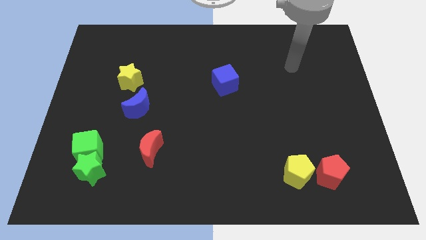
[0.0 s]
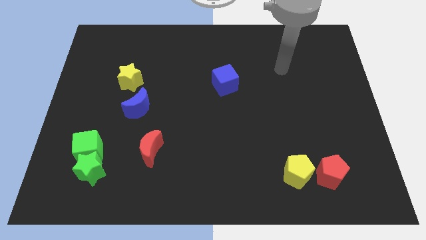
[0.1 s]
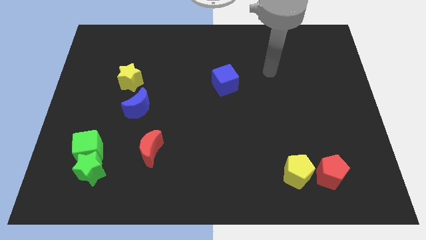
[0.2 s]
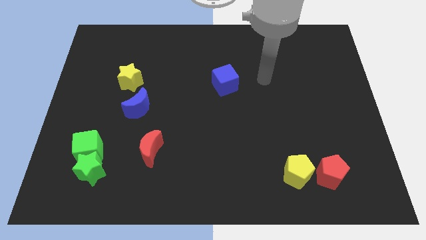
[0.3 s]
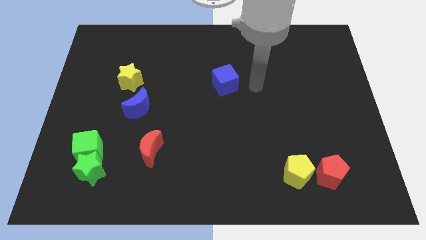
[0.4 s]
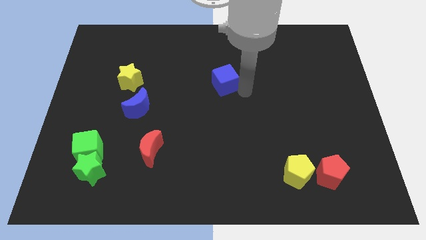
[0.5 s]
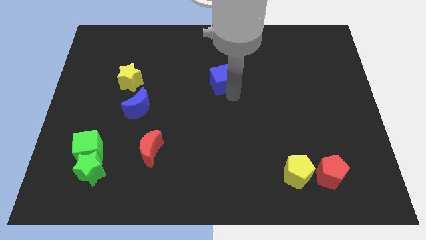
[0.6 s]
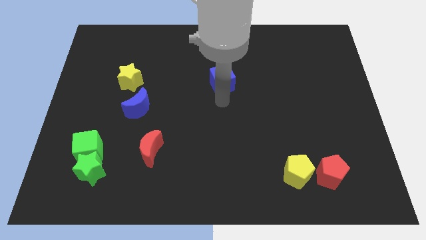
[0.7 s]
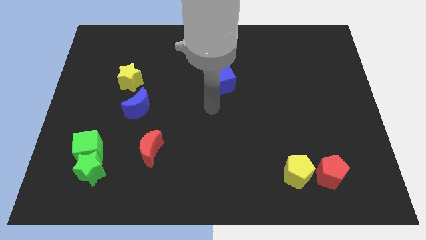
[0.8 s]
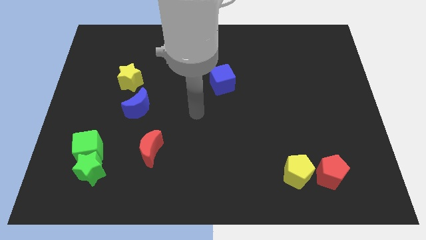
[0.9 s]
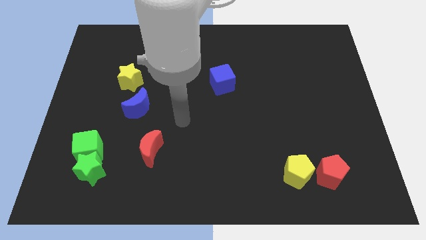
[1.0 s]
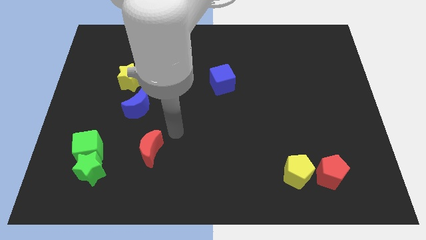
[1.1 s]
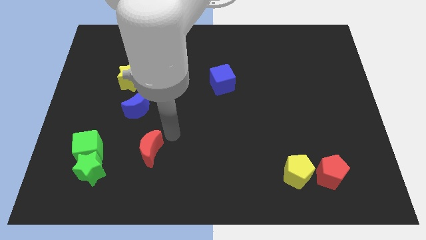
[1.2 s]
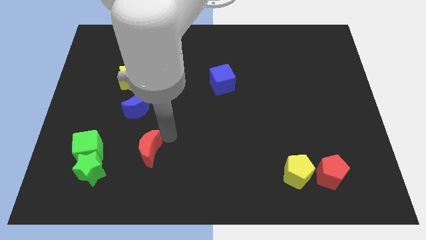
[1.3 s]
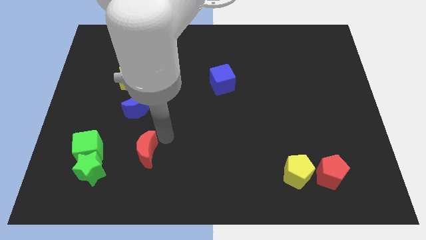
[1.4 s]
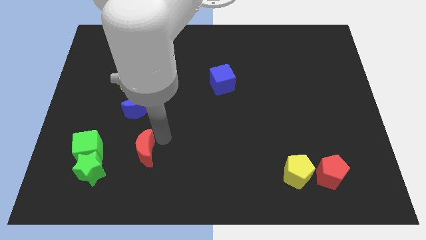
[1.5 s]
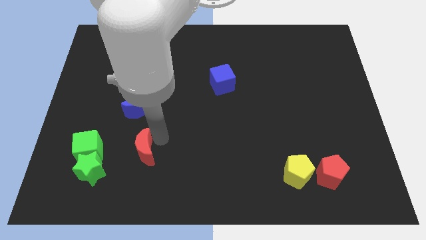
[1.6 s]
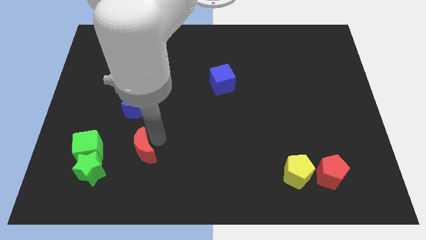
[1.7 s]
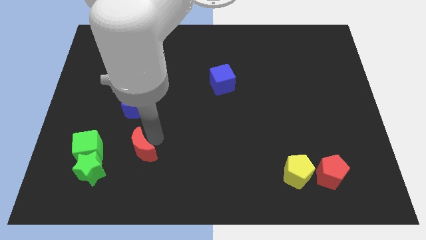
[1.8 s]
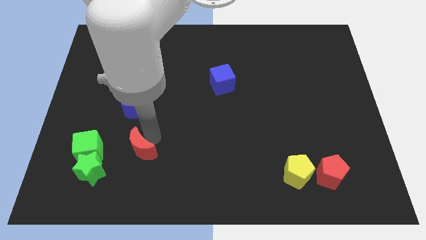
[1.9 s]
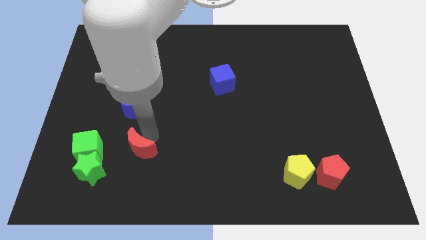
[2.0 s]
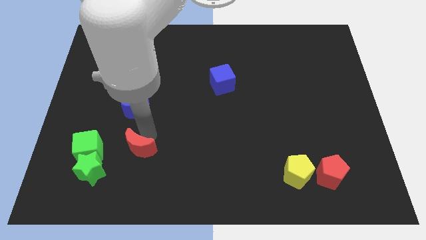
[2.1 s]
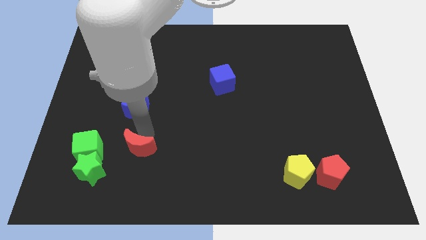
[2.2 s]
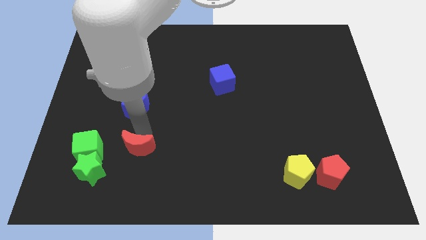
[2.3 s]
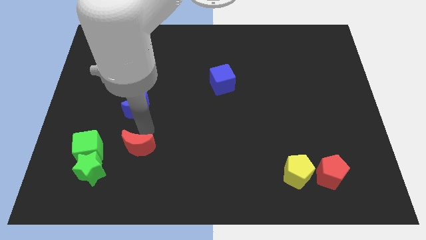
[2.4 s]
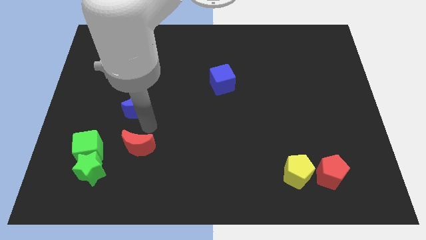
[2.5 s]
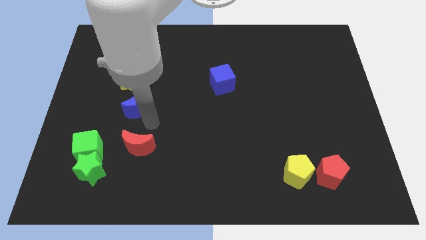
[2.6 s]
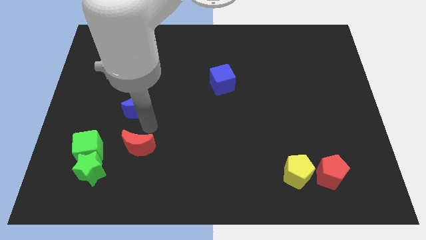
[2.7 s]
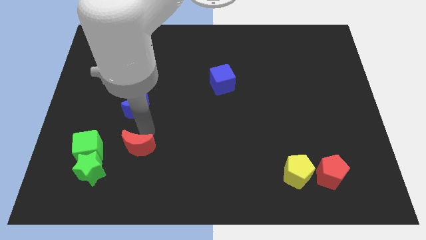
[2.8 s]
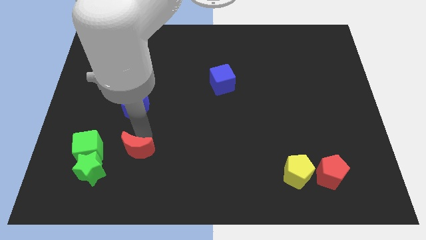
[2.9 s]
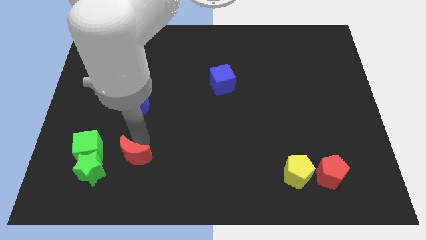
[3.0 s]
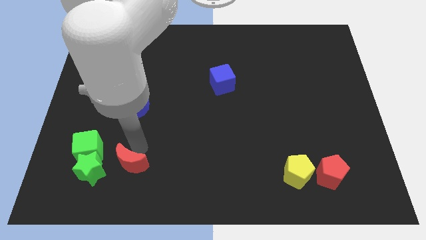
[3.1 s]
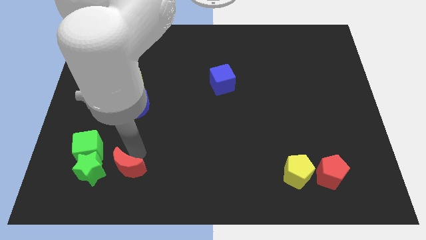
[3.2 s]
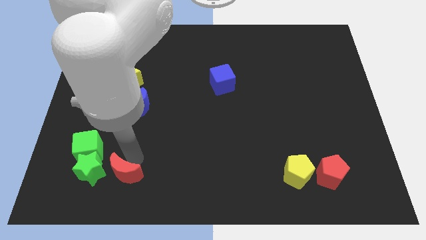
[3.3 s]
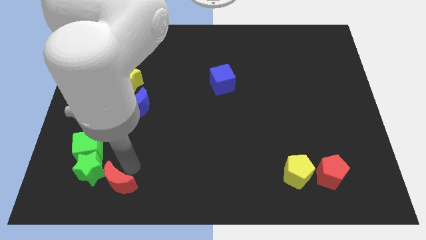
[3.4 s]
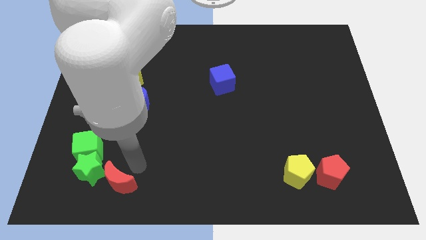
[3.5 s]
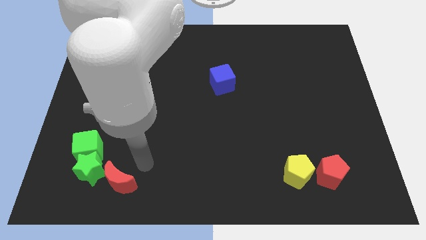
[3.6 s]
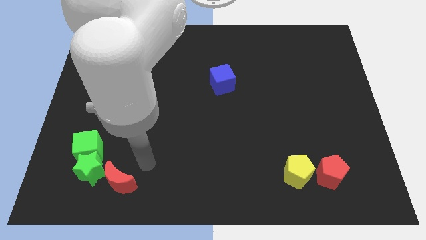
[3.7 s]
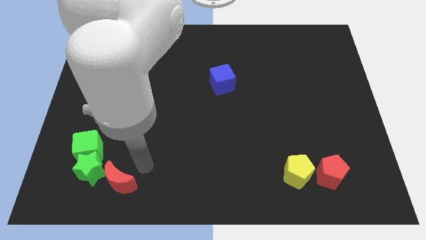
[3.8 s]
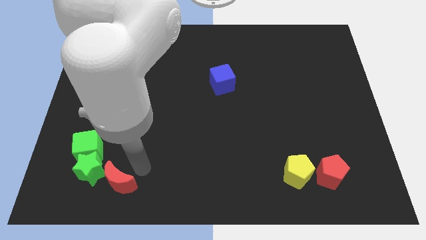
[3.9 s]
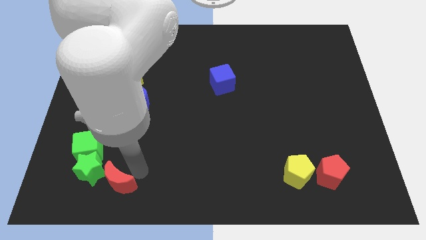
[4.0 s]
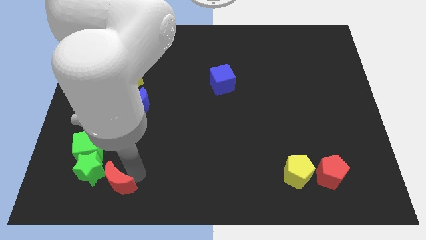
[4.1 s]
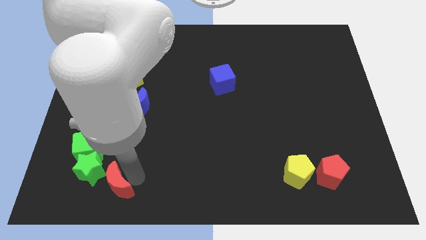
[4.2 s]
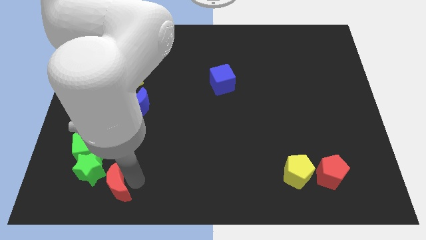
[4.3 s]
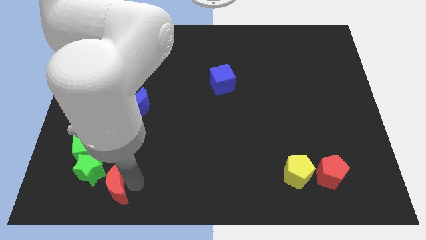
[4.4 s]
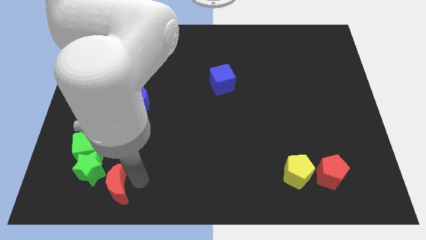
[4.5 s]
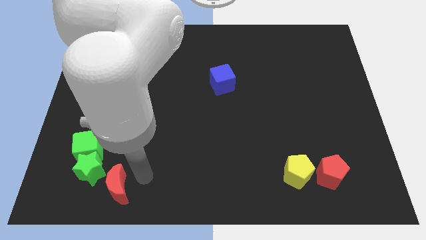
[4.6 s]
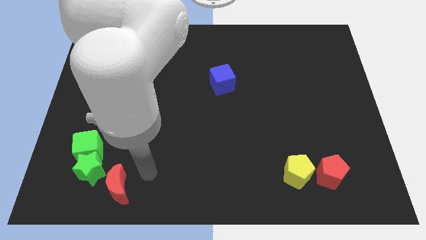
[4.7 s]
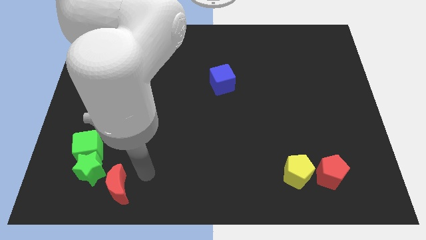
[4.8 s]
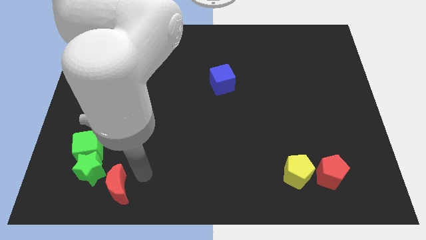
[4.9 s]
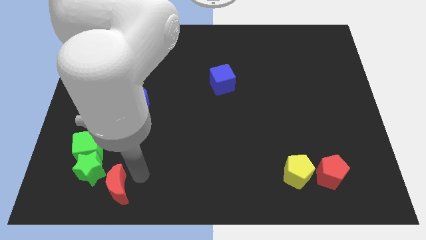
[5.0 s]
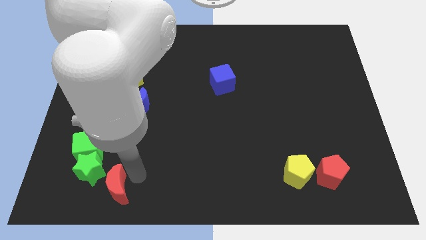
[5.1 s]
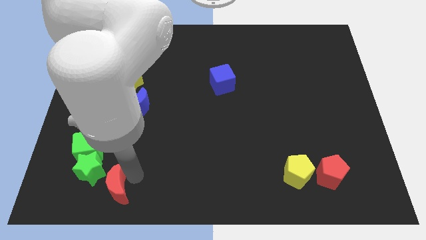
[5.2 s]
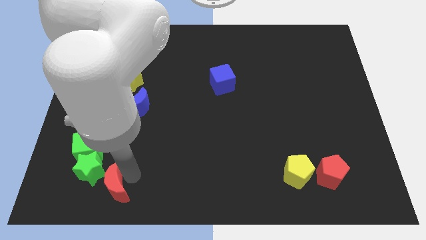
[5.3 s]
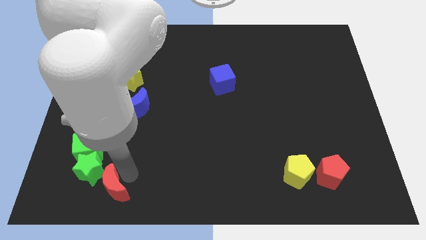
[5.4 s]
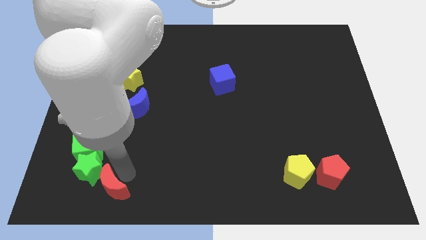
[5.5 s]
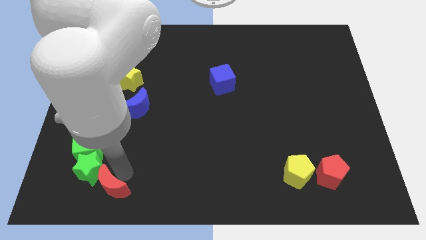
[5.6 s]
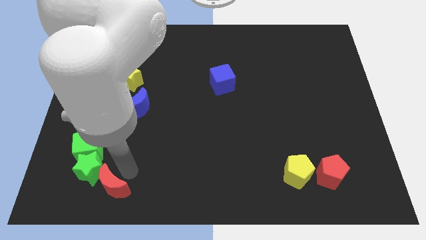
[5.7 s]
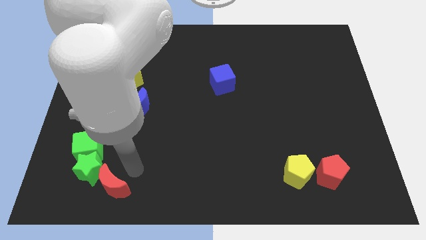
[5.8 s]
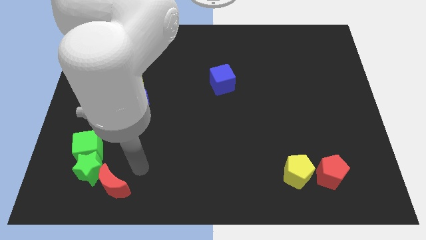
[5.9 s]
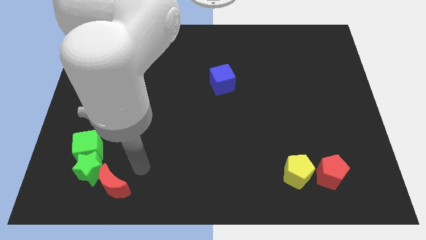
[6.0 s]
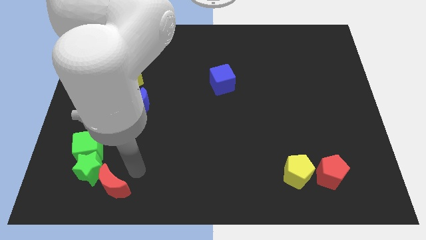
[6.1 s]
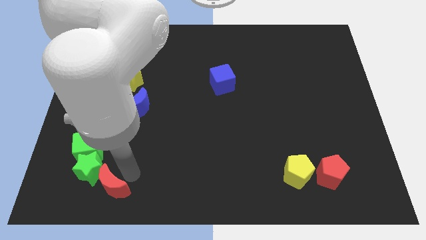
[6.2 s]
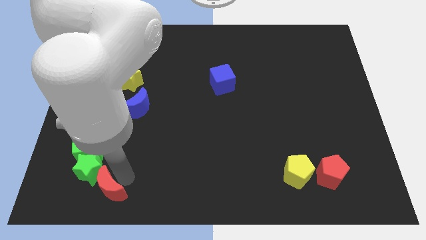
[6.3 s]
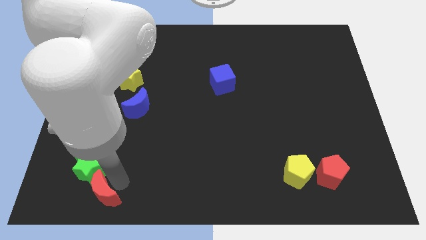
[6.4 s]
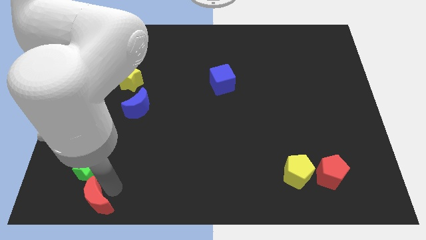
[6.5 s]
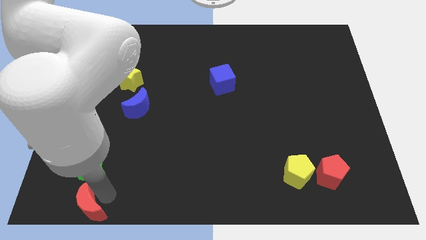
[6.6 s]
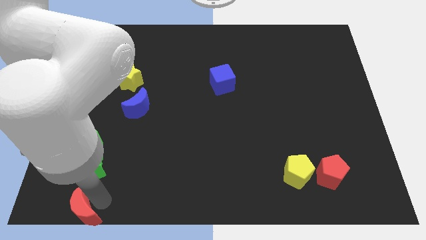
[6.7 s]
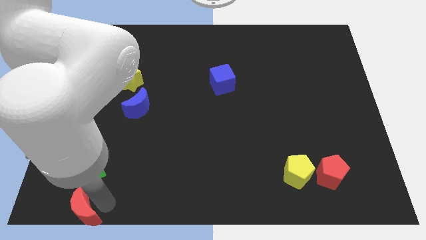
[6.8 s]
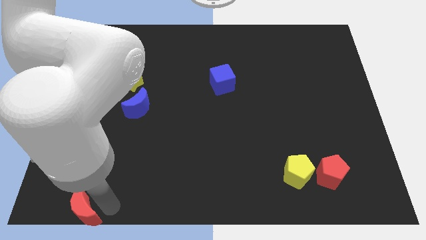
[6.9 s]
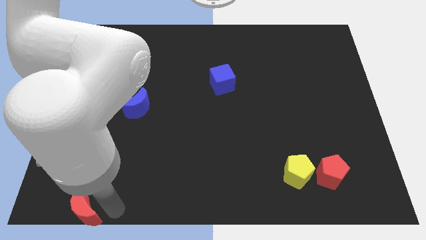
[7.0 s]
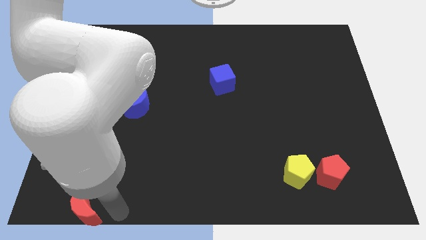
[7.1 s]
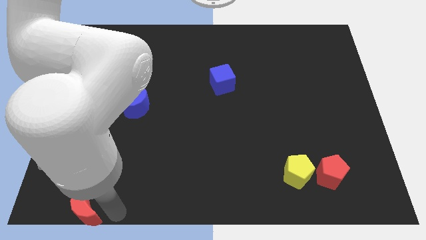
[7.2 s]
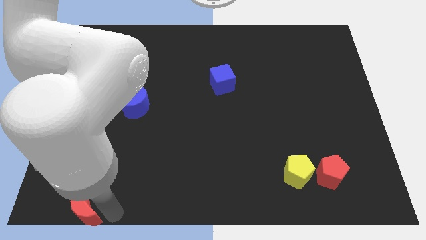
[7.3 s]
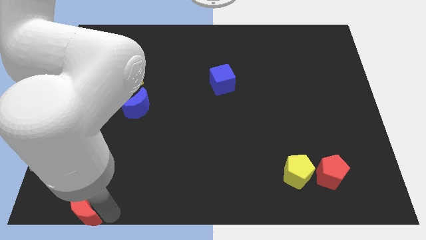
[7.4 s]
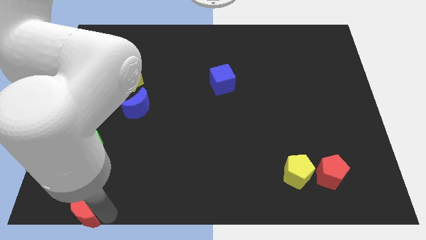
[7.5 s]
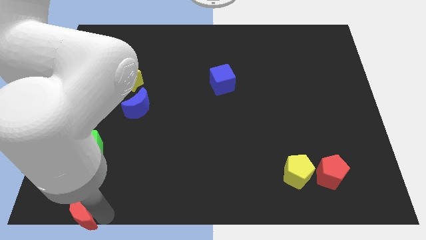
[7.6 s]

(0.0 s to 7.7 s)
put the red moon to the bottom left of the board
